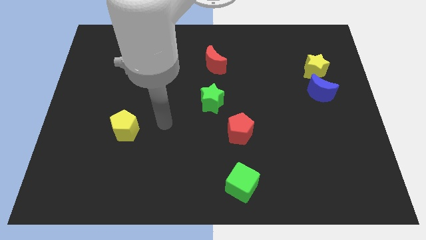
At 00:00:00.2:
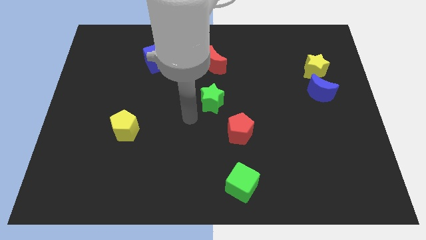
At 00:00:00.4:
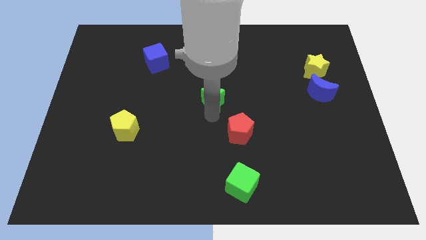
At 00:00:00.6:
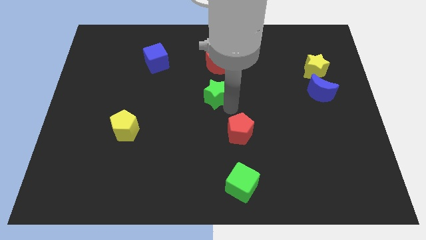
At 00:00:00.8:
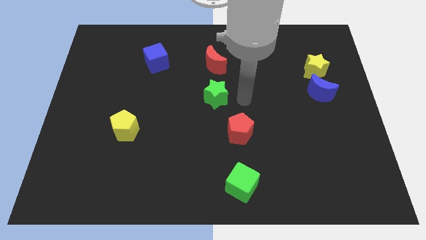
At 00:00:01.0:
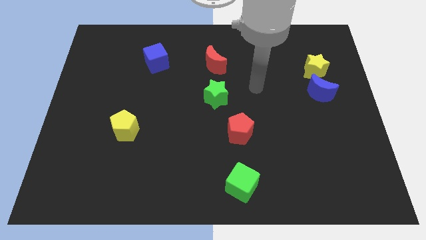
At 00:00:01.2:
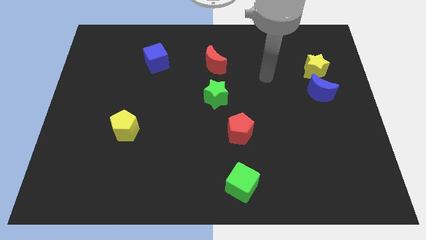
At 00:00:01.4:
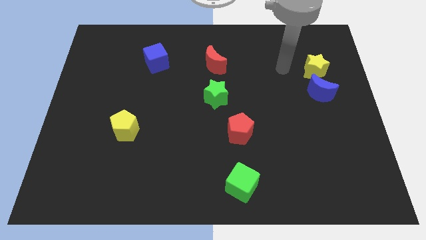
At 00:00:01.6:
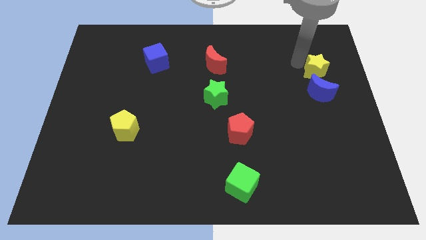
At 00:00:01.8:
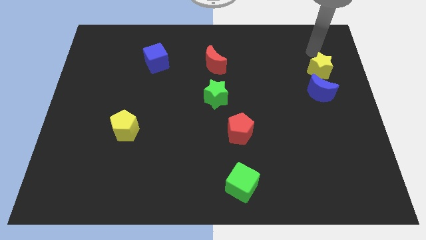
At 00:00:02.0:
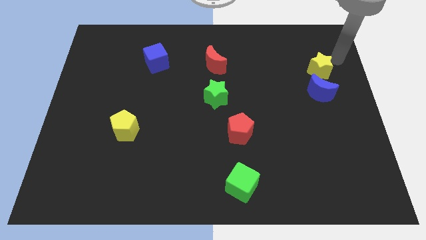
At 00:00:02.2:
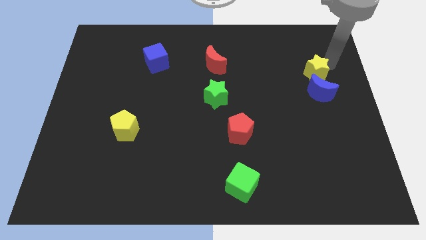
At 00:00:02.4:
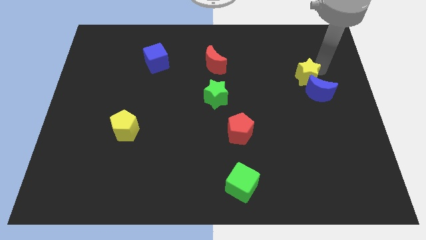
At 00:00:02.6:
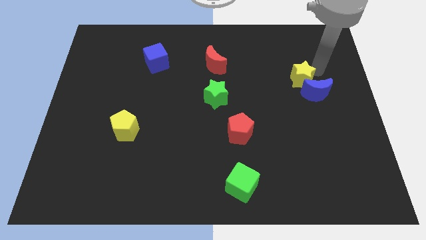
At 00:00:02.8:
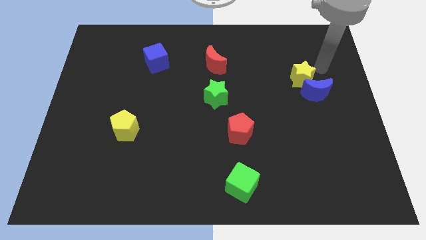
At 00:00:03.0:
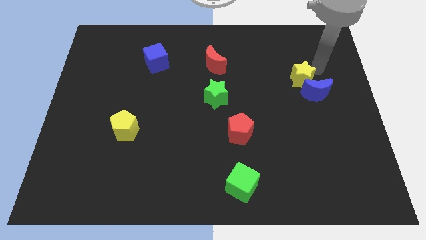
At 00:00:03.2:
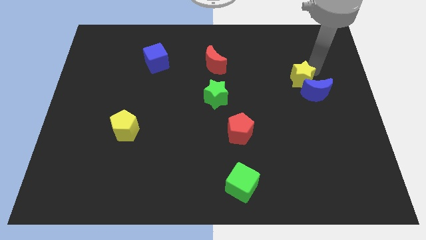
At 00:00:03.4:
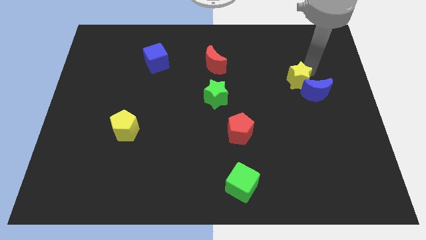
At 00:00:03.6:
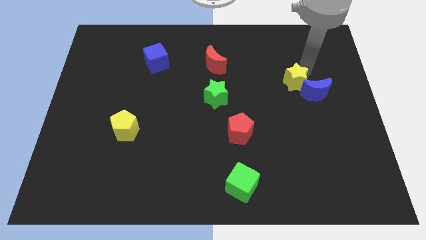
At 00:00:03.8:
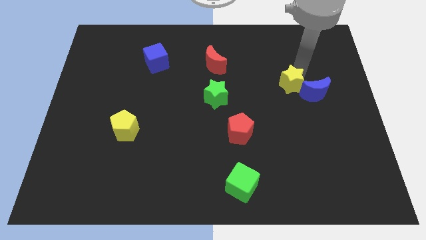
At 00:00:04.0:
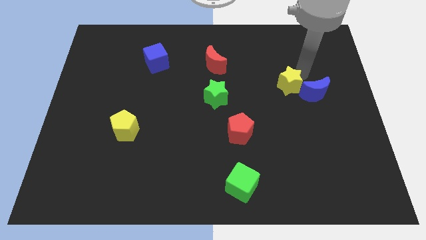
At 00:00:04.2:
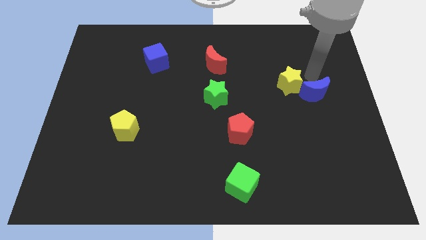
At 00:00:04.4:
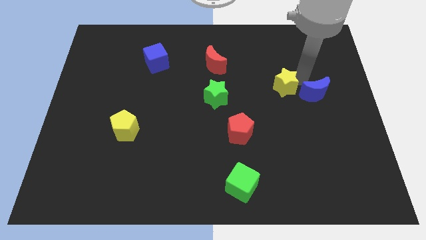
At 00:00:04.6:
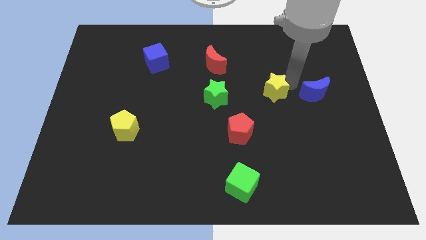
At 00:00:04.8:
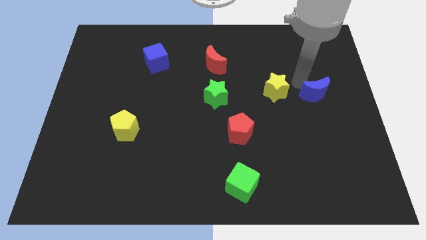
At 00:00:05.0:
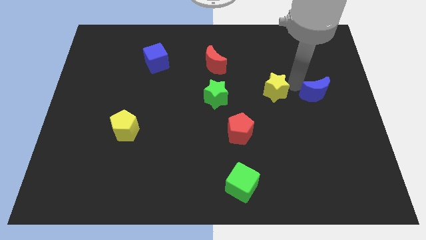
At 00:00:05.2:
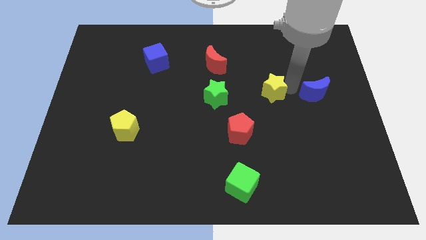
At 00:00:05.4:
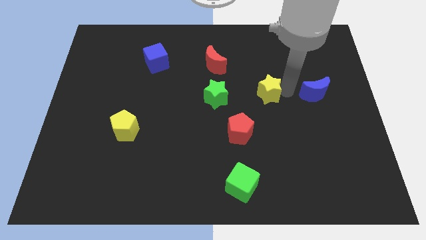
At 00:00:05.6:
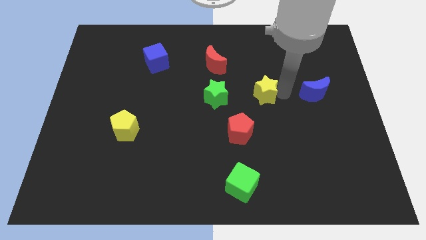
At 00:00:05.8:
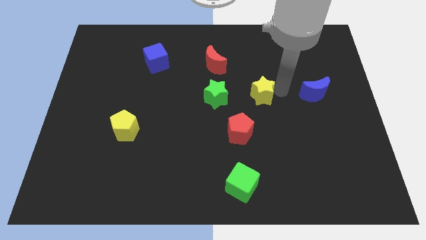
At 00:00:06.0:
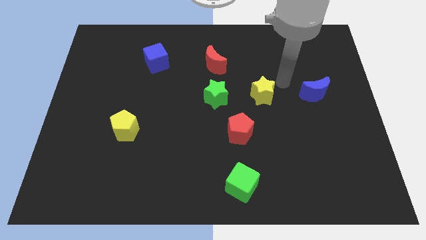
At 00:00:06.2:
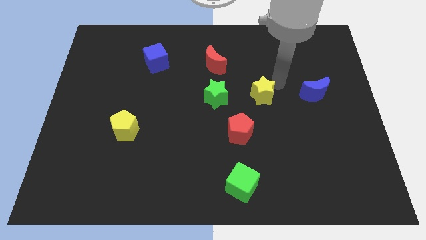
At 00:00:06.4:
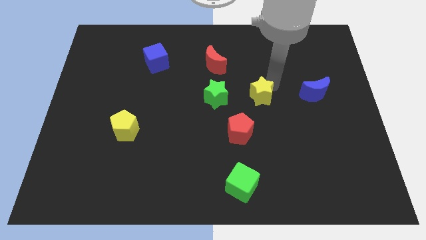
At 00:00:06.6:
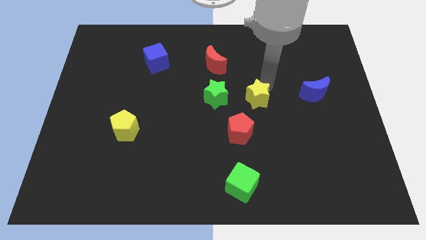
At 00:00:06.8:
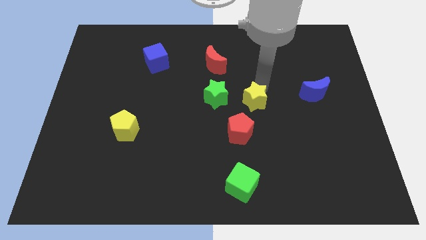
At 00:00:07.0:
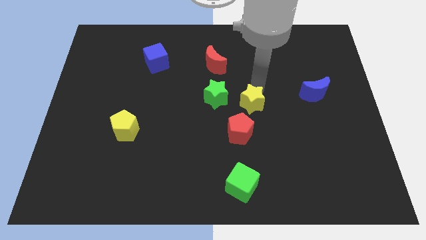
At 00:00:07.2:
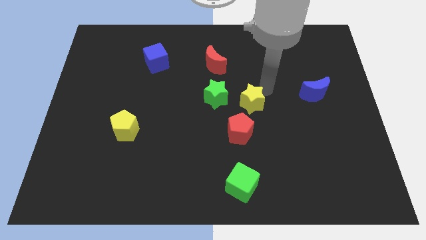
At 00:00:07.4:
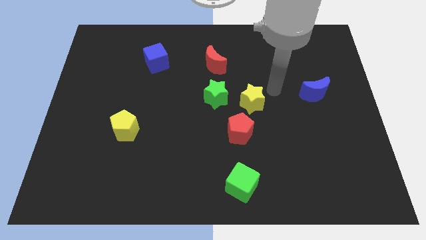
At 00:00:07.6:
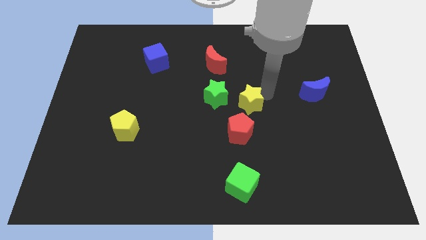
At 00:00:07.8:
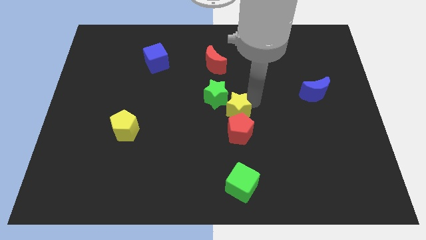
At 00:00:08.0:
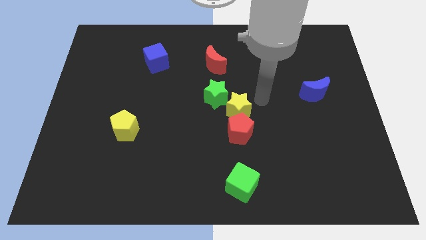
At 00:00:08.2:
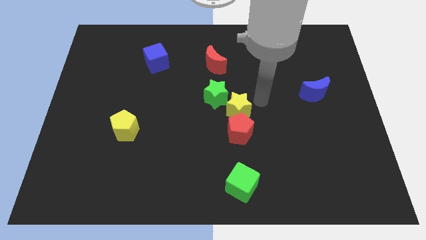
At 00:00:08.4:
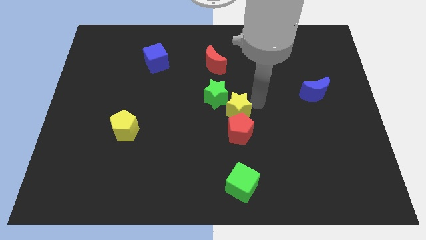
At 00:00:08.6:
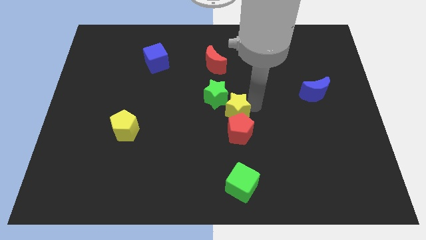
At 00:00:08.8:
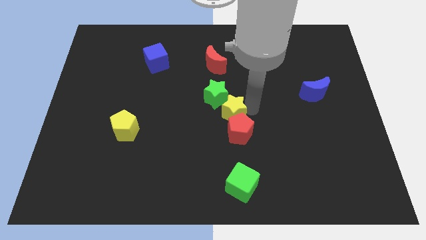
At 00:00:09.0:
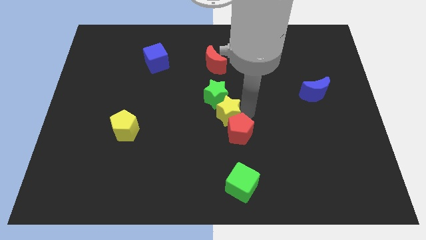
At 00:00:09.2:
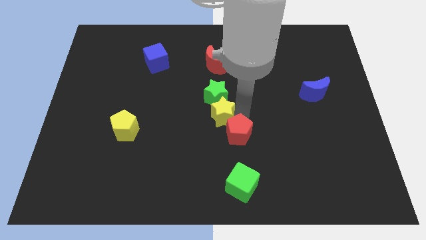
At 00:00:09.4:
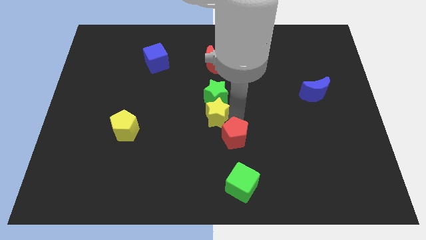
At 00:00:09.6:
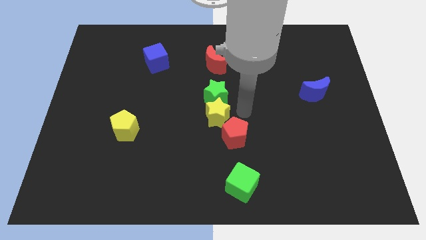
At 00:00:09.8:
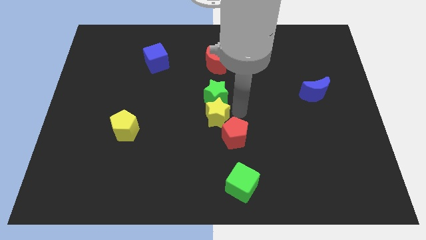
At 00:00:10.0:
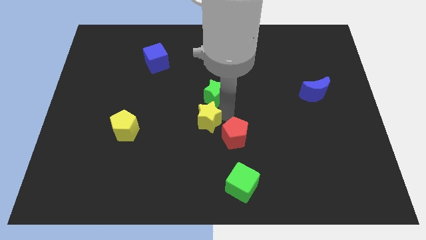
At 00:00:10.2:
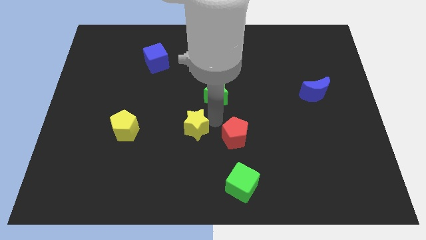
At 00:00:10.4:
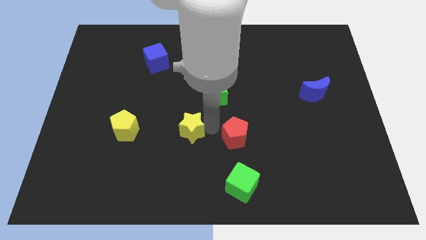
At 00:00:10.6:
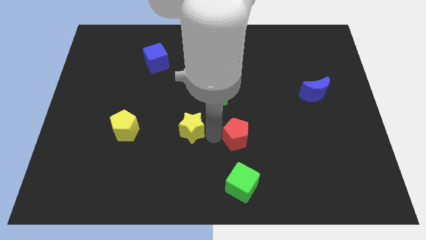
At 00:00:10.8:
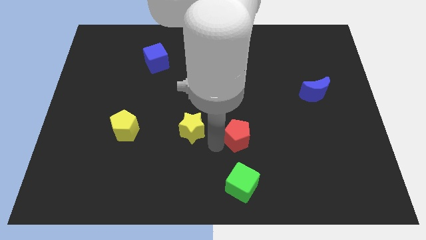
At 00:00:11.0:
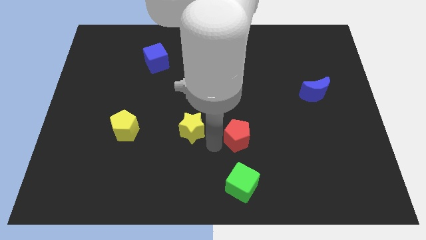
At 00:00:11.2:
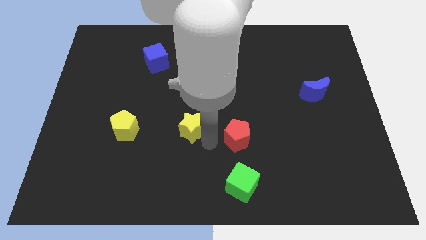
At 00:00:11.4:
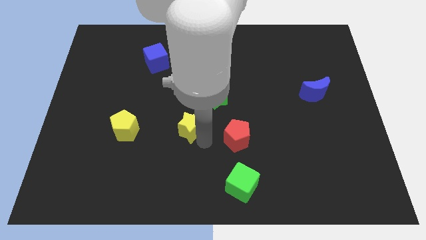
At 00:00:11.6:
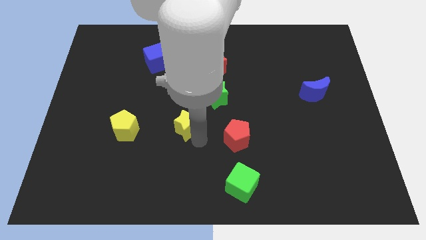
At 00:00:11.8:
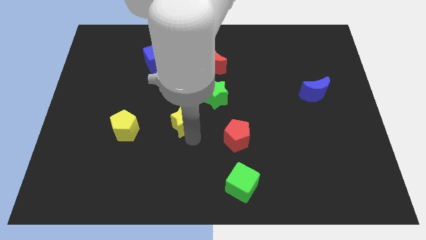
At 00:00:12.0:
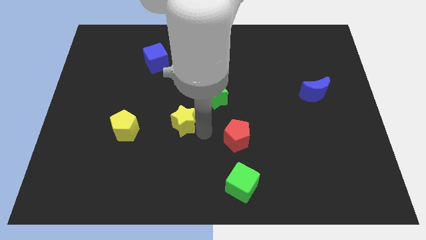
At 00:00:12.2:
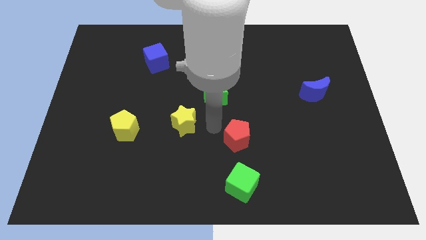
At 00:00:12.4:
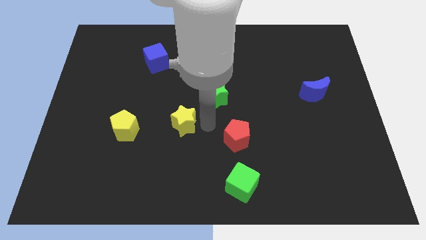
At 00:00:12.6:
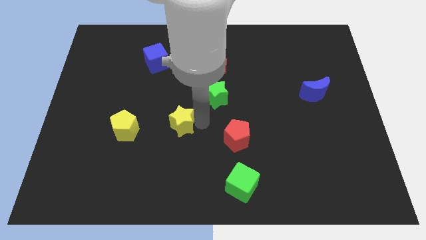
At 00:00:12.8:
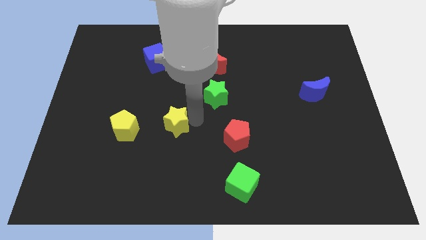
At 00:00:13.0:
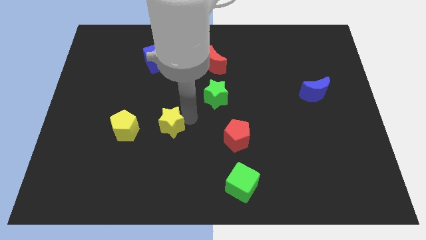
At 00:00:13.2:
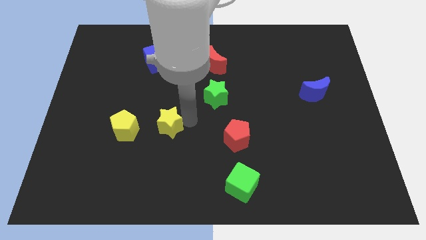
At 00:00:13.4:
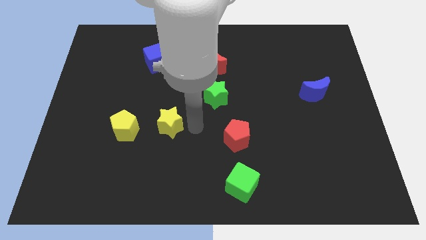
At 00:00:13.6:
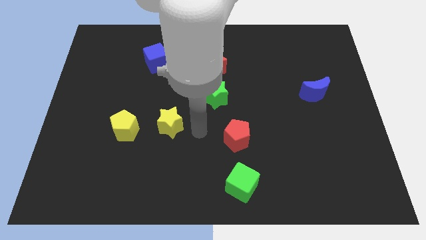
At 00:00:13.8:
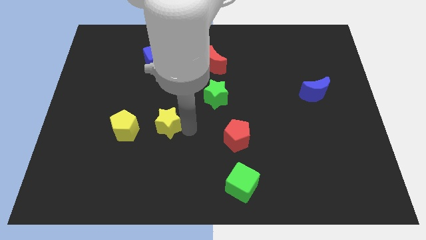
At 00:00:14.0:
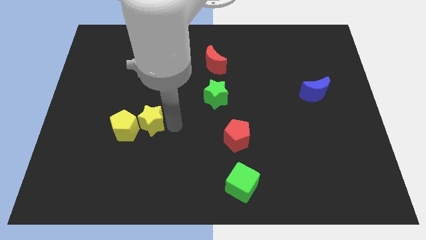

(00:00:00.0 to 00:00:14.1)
move the yellow star next to the yellow pentagon

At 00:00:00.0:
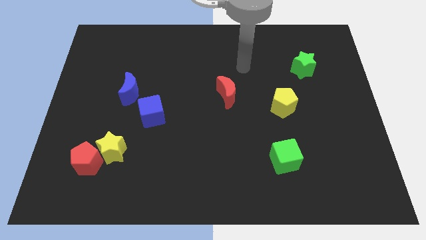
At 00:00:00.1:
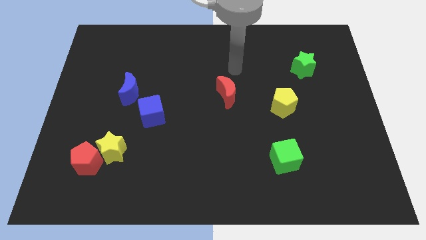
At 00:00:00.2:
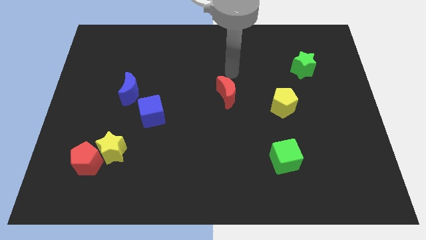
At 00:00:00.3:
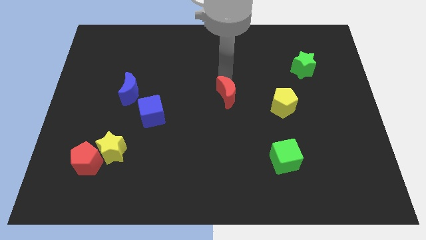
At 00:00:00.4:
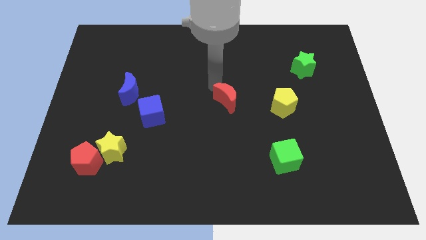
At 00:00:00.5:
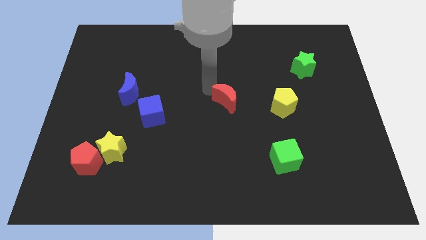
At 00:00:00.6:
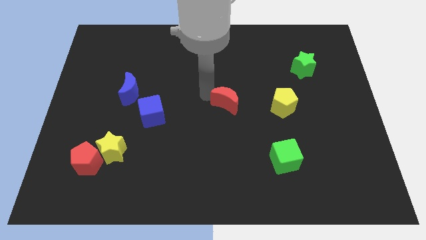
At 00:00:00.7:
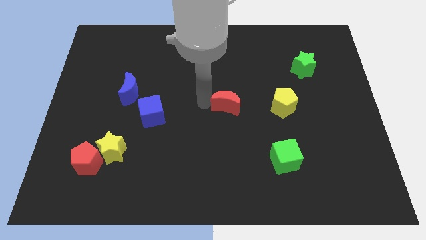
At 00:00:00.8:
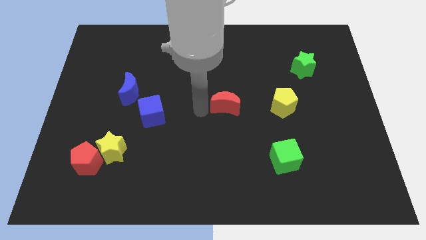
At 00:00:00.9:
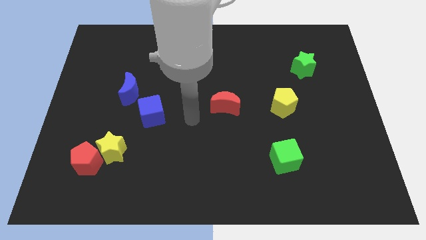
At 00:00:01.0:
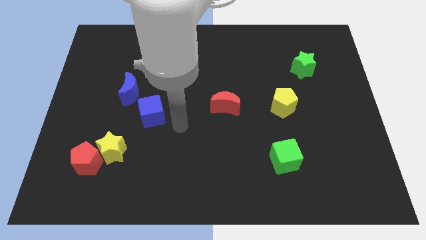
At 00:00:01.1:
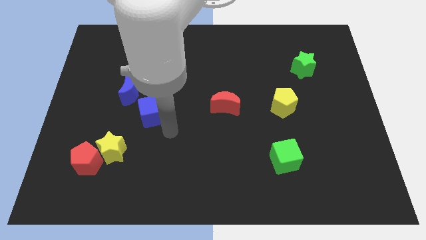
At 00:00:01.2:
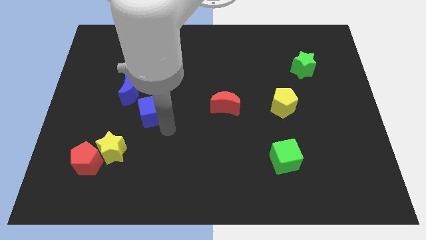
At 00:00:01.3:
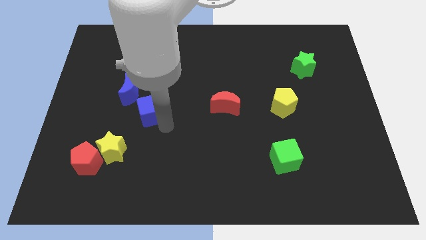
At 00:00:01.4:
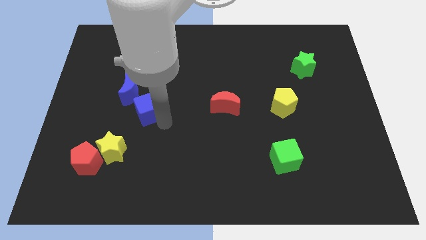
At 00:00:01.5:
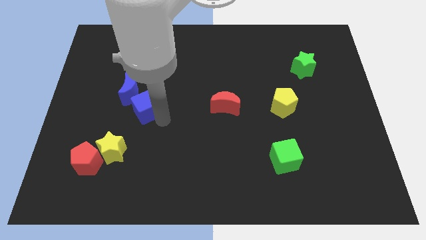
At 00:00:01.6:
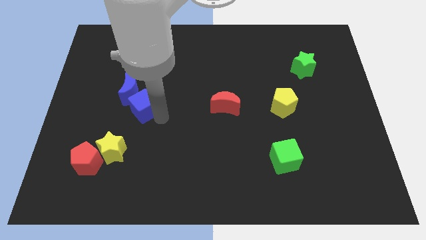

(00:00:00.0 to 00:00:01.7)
move the blue cube to the blue moon
